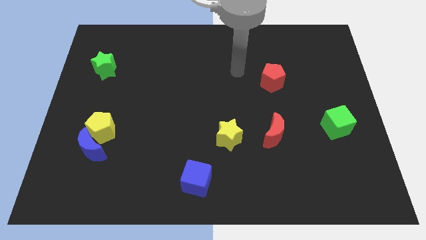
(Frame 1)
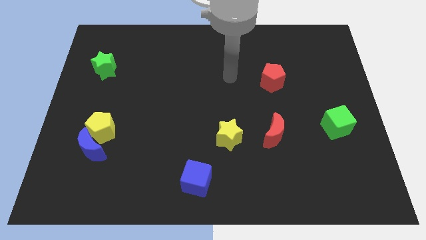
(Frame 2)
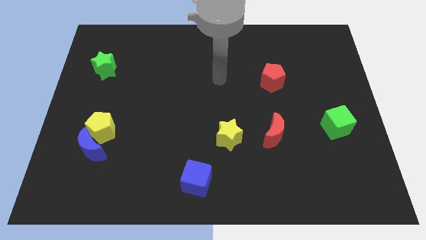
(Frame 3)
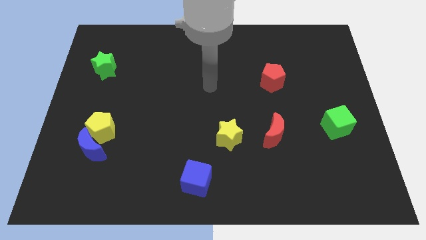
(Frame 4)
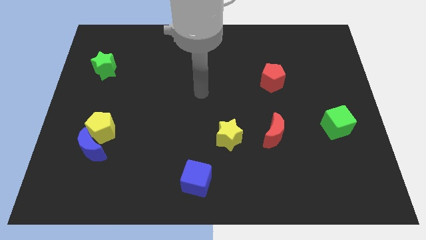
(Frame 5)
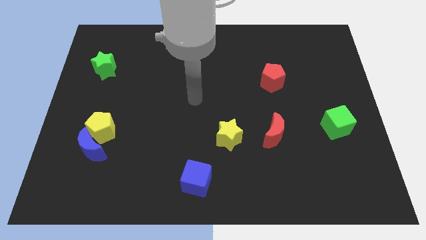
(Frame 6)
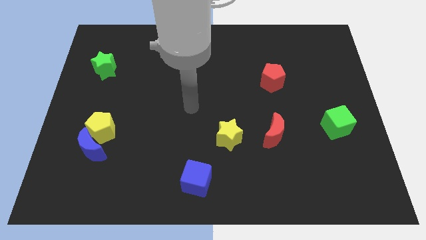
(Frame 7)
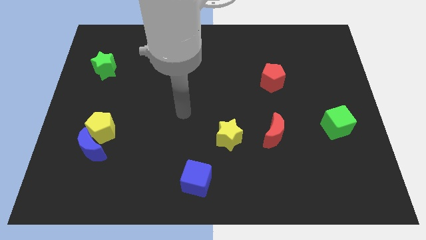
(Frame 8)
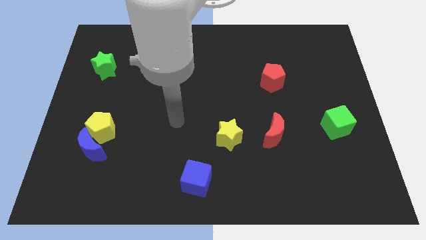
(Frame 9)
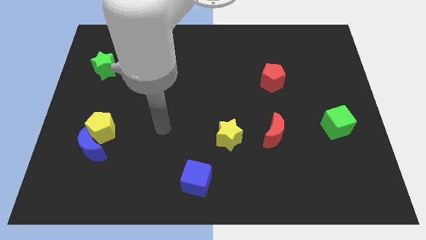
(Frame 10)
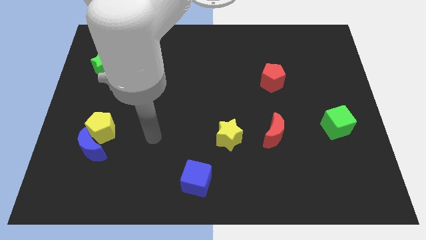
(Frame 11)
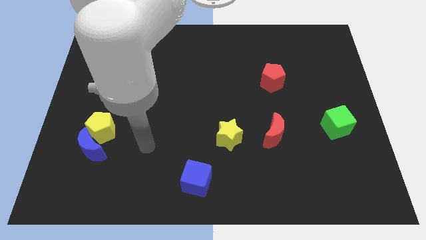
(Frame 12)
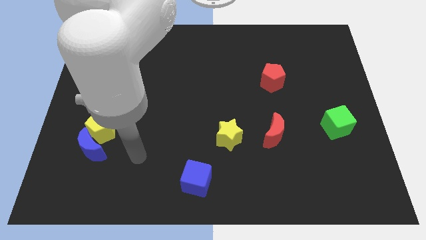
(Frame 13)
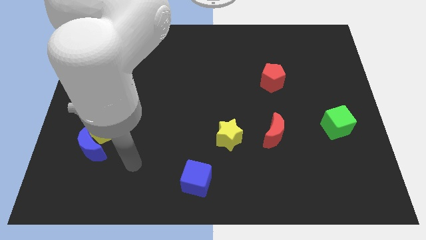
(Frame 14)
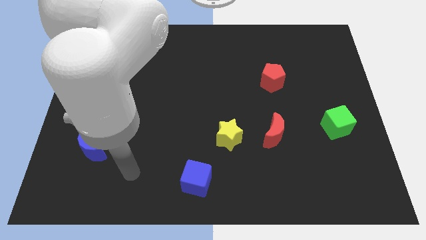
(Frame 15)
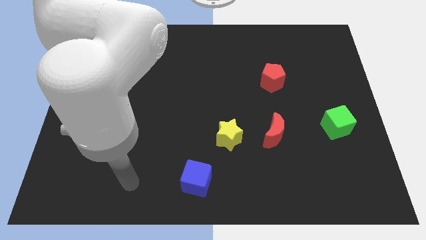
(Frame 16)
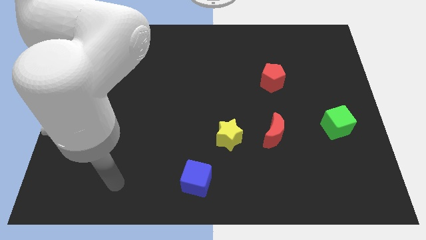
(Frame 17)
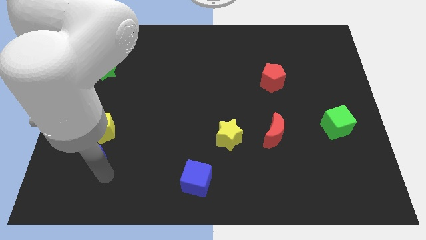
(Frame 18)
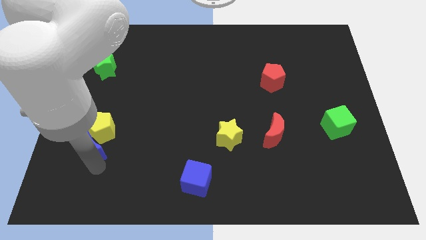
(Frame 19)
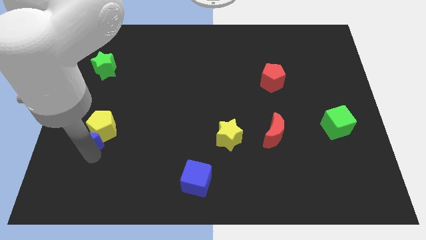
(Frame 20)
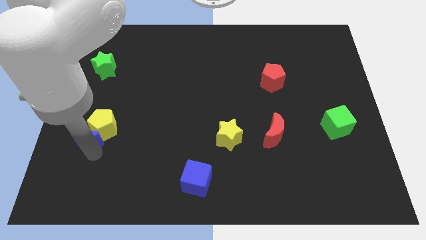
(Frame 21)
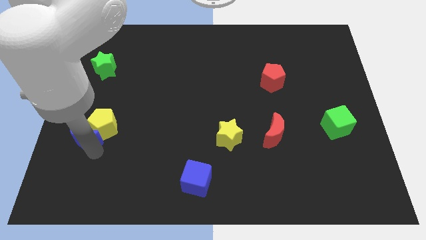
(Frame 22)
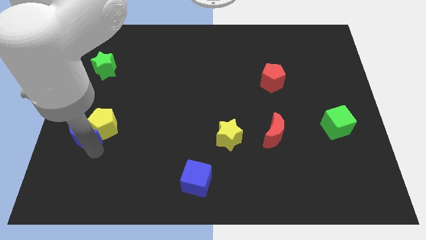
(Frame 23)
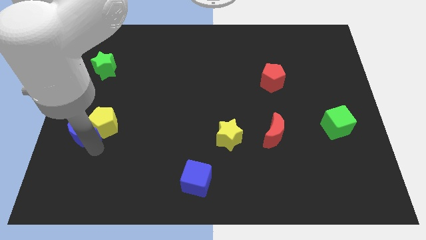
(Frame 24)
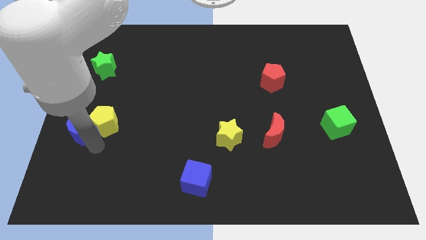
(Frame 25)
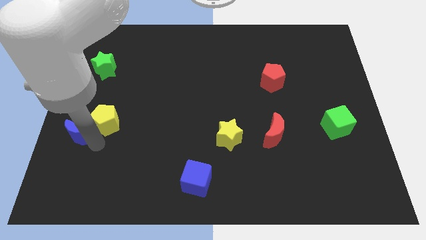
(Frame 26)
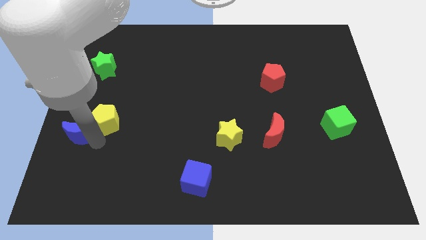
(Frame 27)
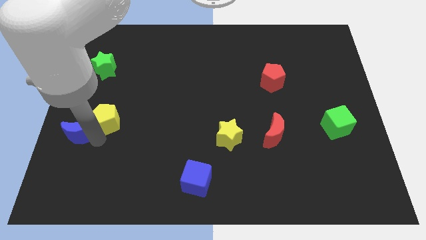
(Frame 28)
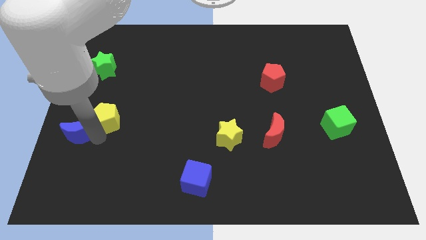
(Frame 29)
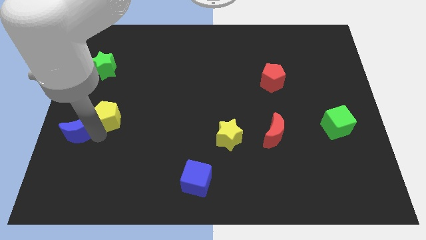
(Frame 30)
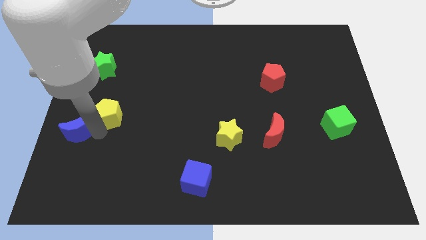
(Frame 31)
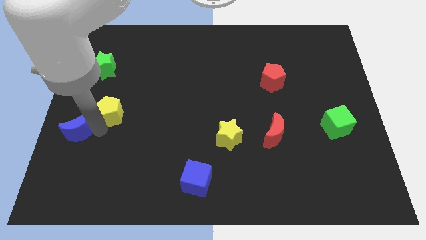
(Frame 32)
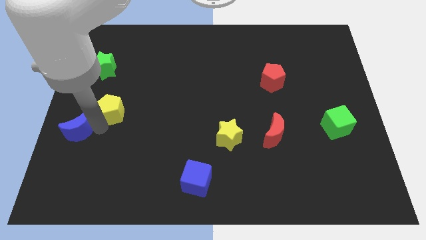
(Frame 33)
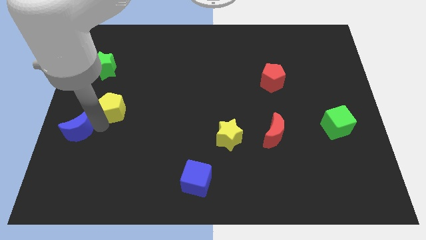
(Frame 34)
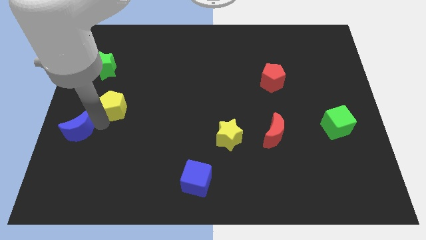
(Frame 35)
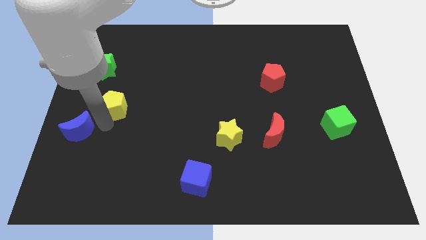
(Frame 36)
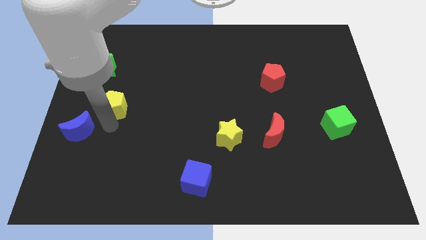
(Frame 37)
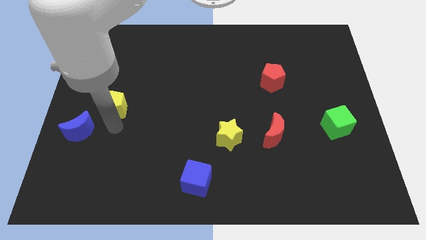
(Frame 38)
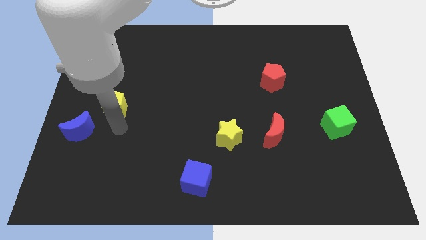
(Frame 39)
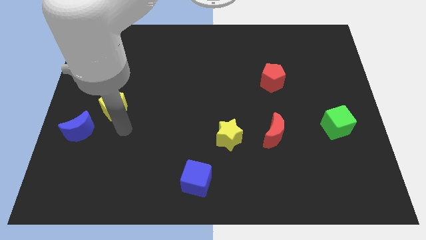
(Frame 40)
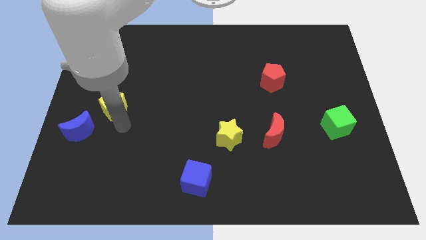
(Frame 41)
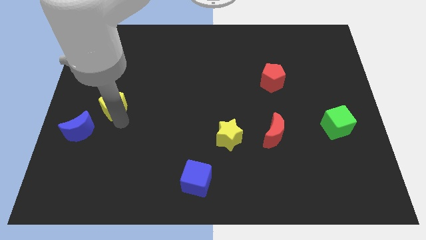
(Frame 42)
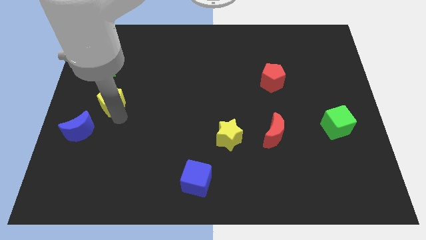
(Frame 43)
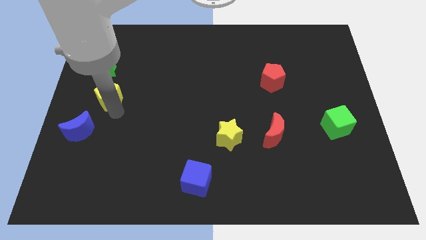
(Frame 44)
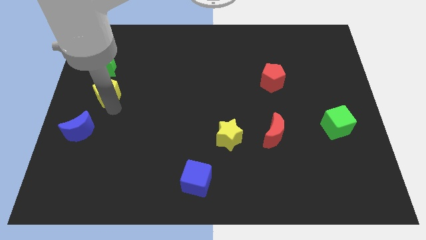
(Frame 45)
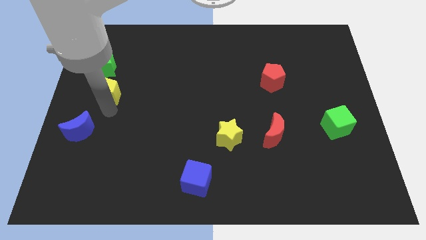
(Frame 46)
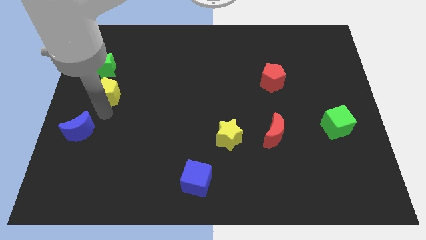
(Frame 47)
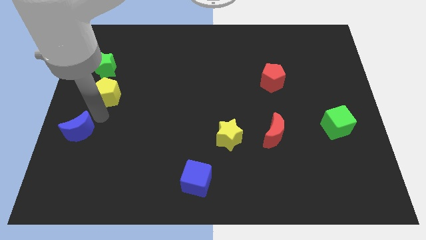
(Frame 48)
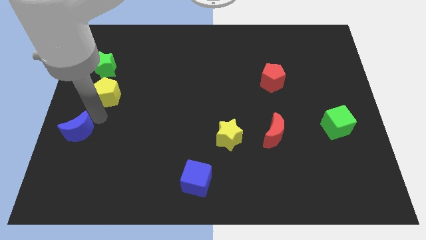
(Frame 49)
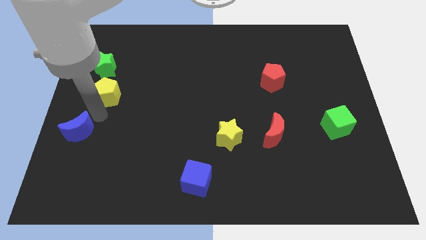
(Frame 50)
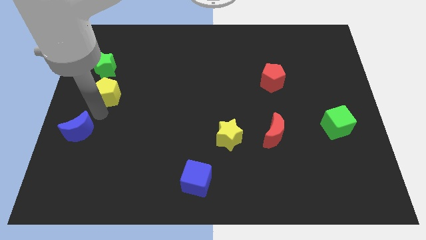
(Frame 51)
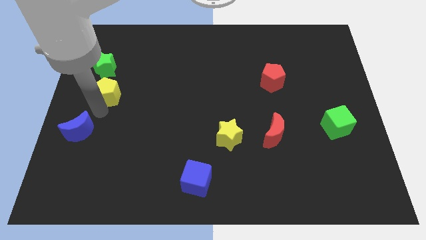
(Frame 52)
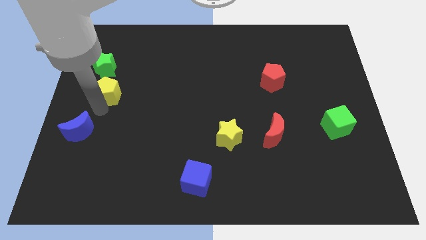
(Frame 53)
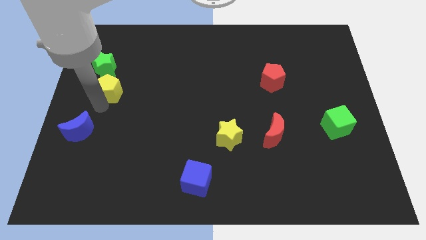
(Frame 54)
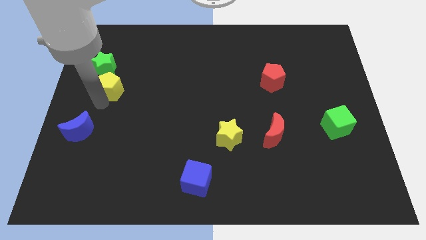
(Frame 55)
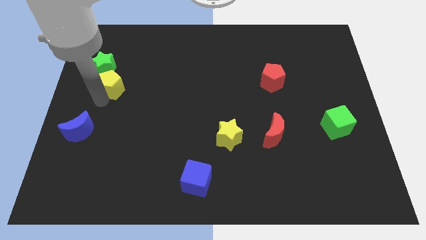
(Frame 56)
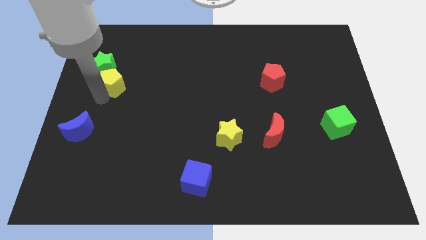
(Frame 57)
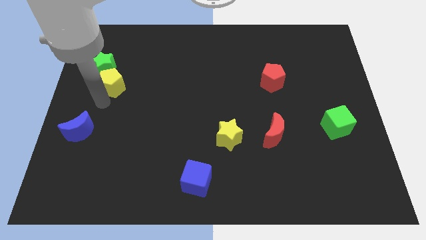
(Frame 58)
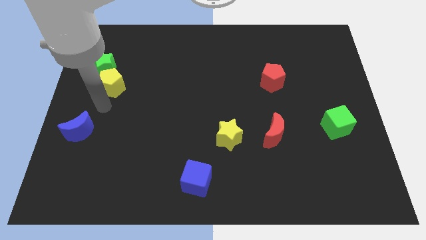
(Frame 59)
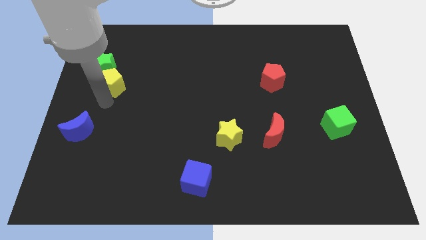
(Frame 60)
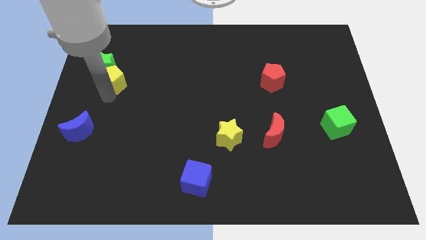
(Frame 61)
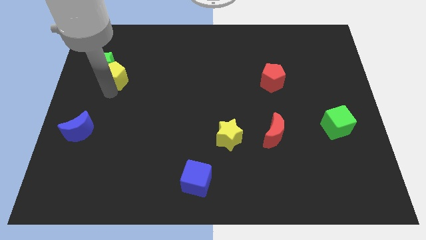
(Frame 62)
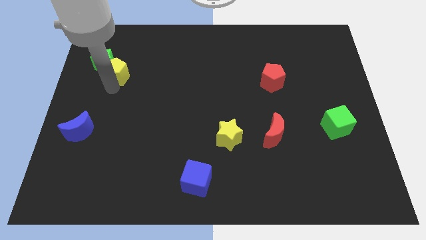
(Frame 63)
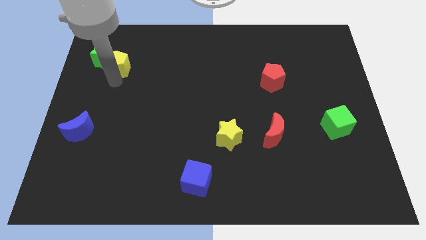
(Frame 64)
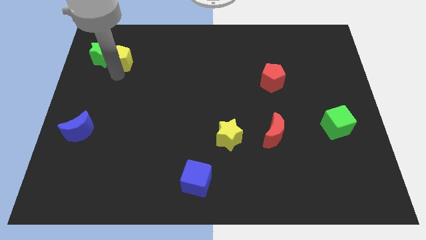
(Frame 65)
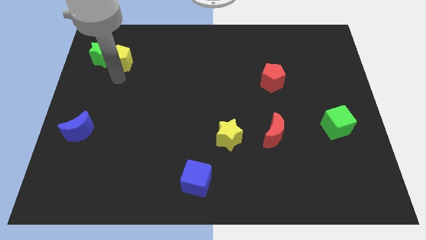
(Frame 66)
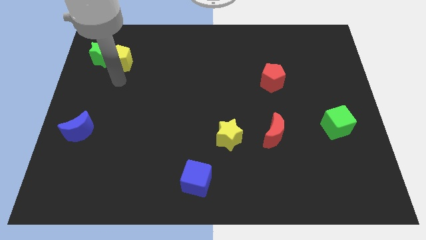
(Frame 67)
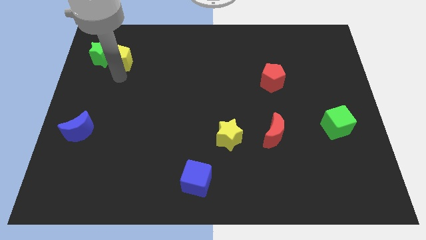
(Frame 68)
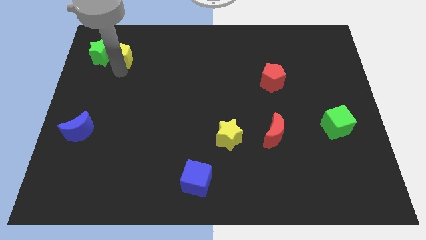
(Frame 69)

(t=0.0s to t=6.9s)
slide the yellow pentagon diagonally up and to the right of the green star

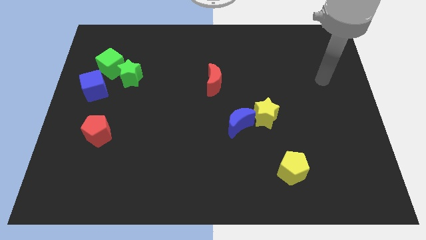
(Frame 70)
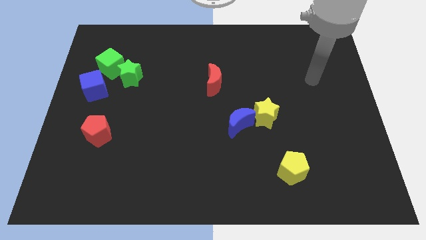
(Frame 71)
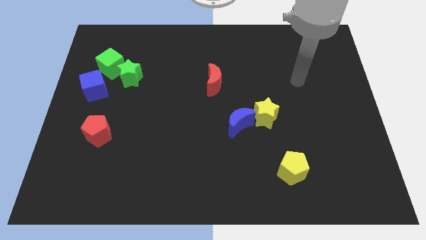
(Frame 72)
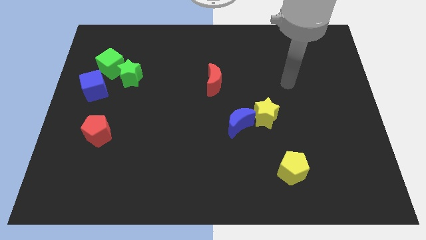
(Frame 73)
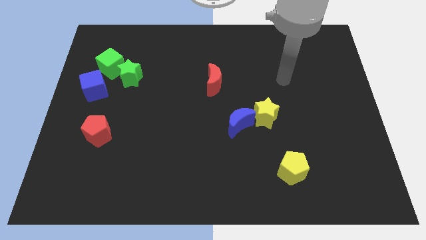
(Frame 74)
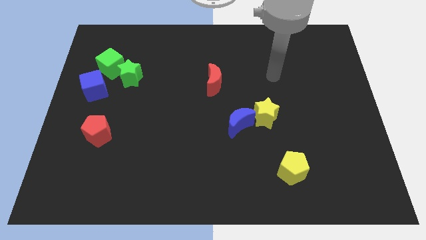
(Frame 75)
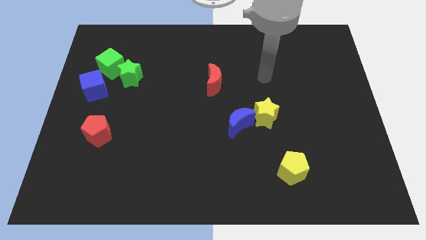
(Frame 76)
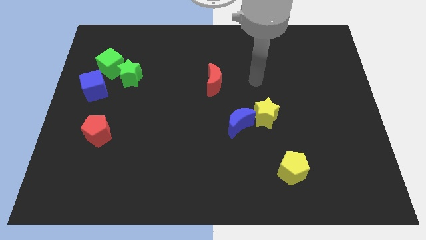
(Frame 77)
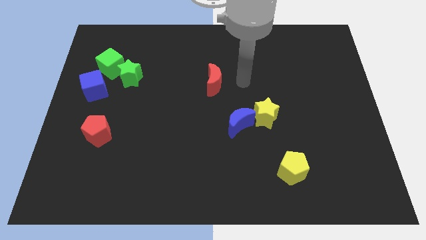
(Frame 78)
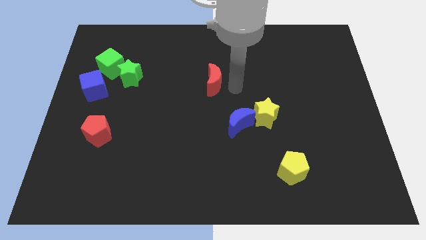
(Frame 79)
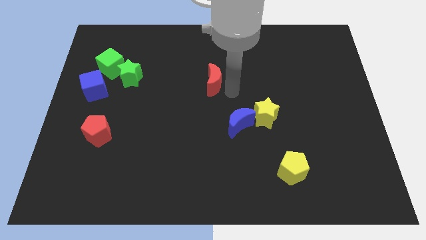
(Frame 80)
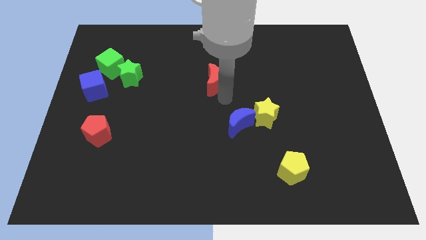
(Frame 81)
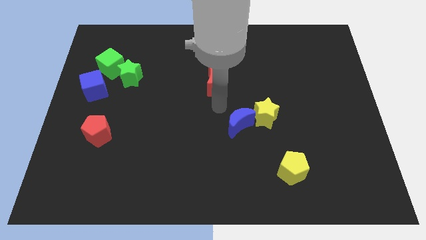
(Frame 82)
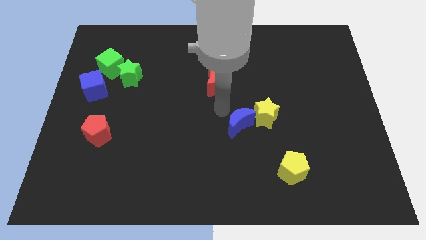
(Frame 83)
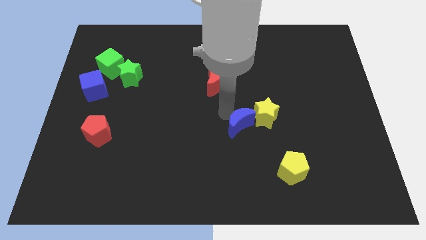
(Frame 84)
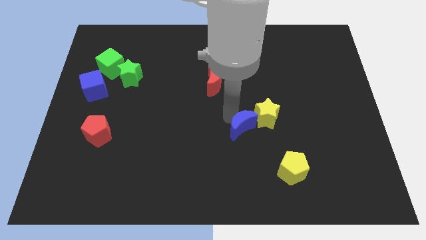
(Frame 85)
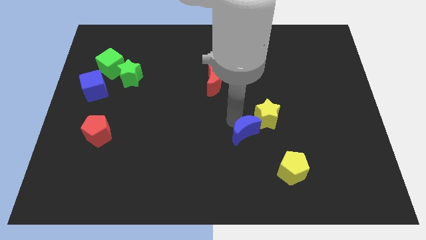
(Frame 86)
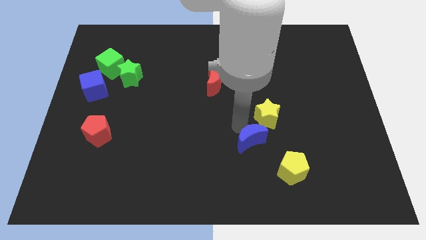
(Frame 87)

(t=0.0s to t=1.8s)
push the blue moon below the yellow star
